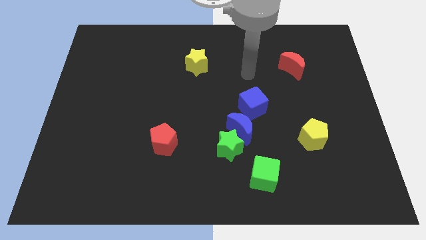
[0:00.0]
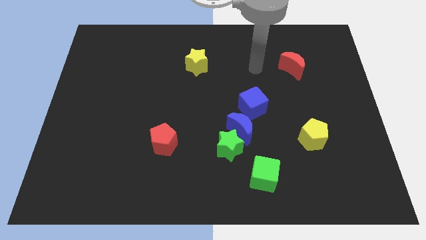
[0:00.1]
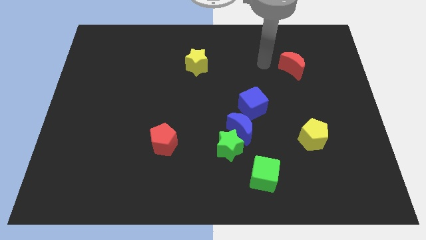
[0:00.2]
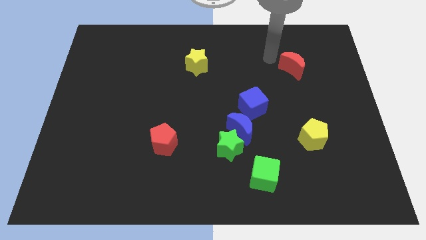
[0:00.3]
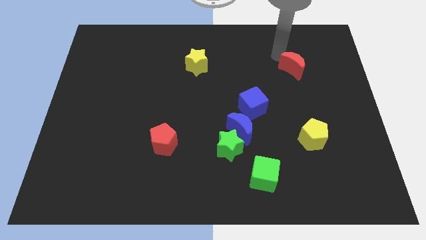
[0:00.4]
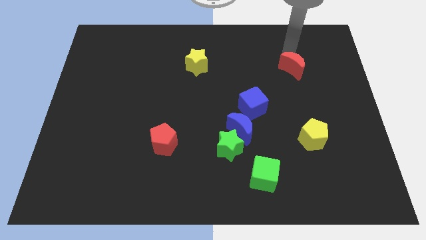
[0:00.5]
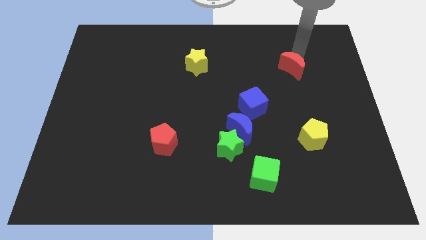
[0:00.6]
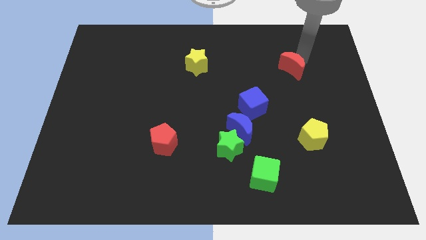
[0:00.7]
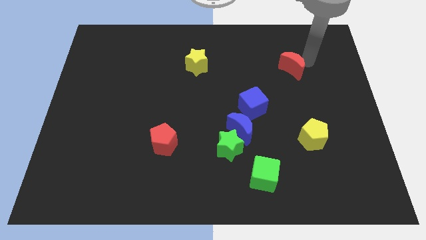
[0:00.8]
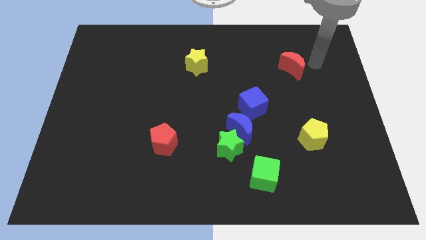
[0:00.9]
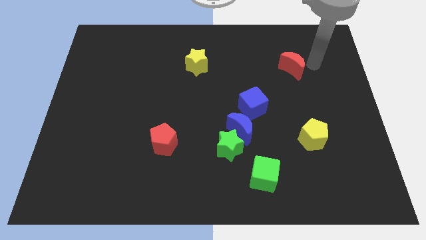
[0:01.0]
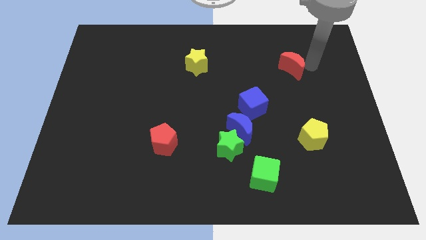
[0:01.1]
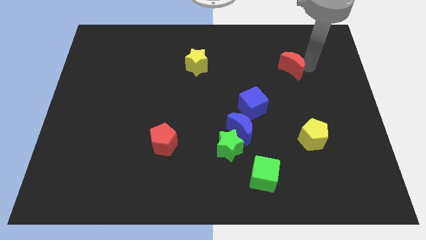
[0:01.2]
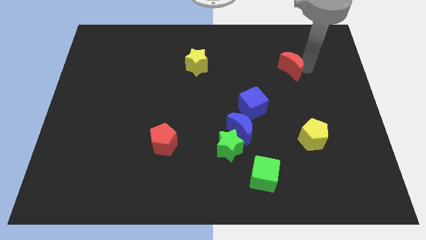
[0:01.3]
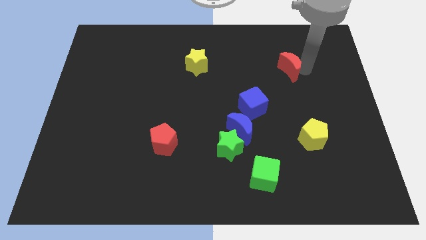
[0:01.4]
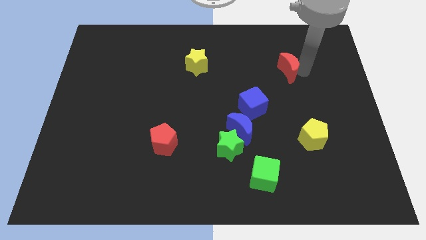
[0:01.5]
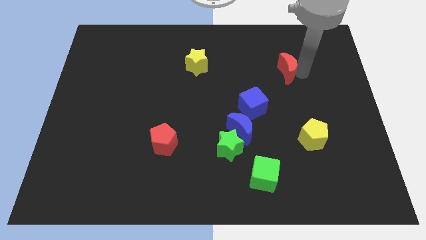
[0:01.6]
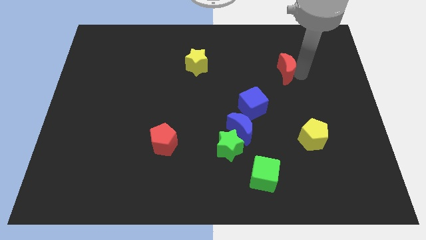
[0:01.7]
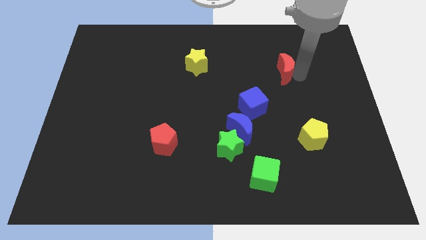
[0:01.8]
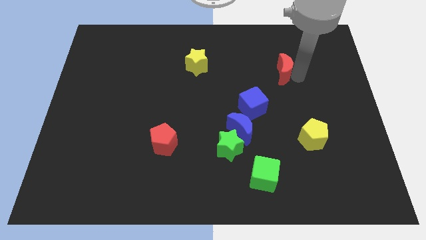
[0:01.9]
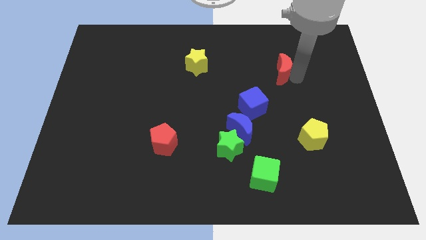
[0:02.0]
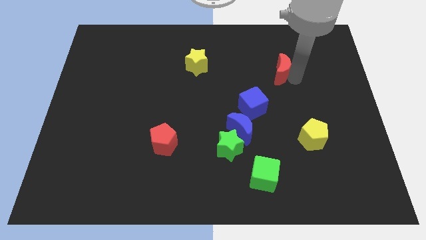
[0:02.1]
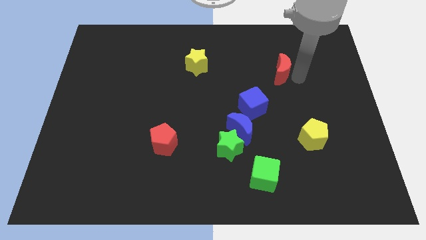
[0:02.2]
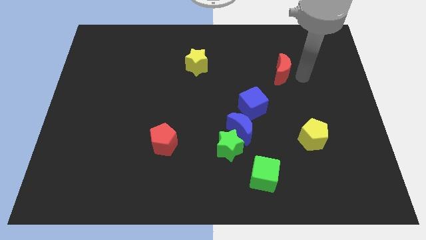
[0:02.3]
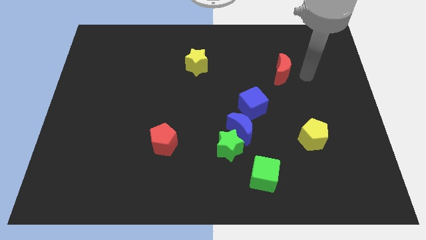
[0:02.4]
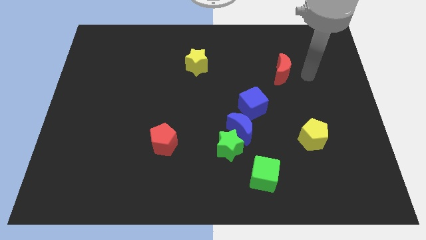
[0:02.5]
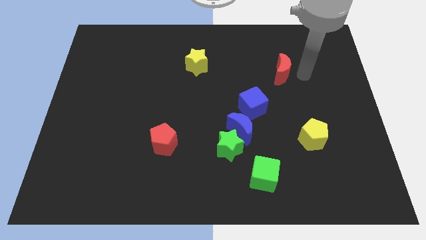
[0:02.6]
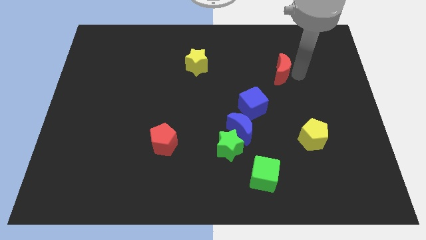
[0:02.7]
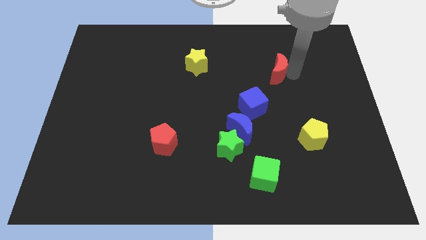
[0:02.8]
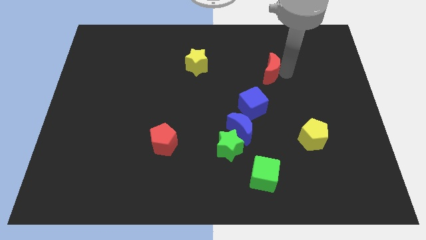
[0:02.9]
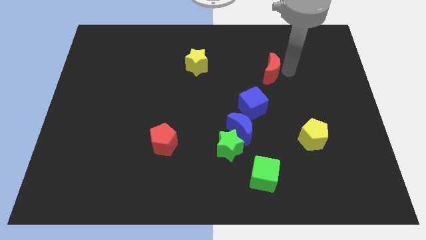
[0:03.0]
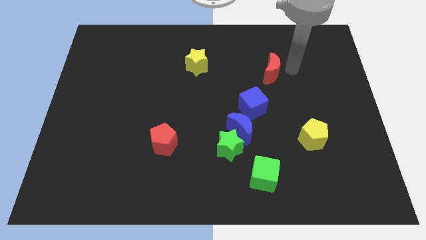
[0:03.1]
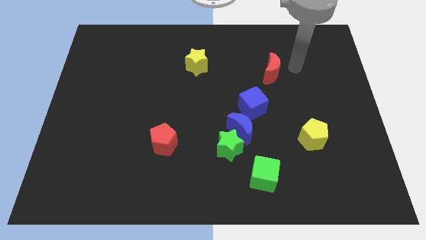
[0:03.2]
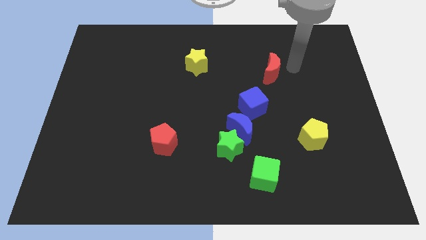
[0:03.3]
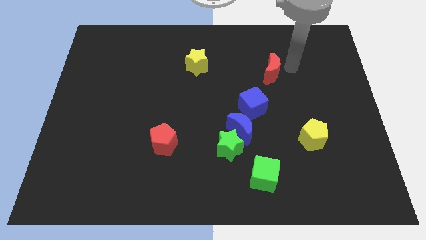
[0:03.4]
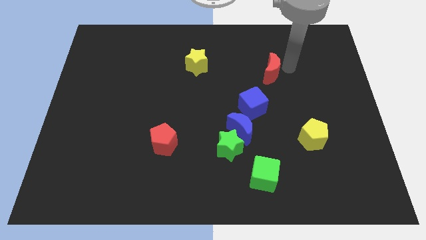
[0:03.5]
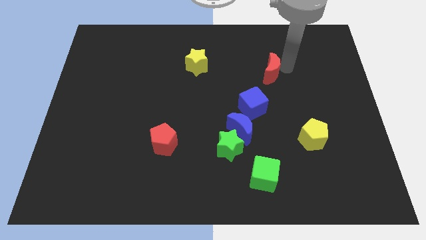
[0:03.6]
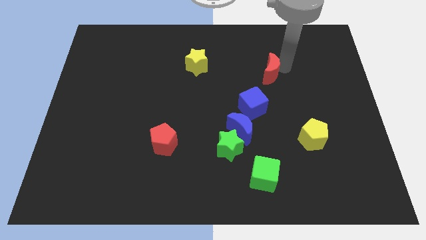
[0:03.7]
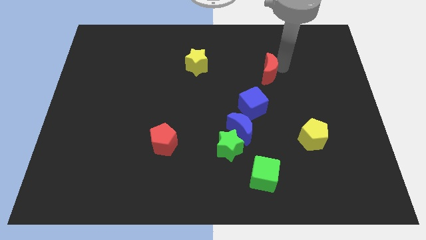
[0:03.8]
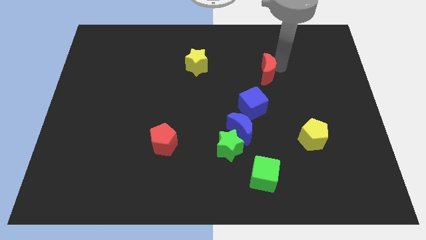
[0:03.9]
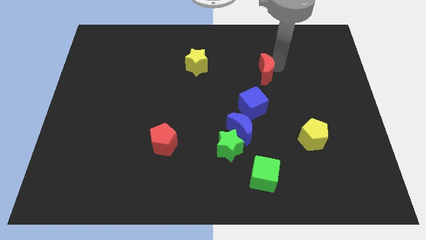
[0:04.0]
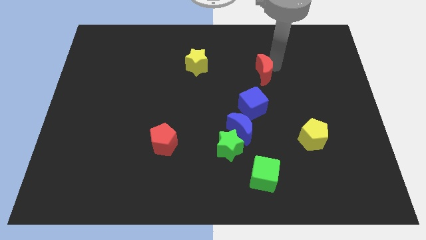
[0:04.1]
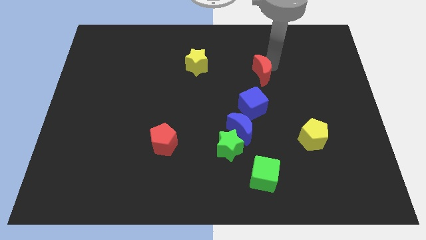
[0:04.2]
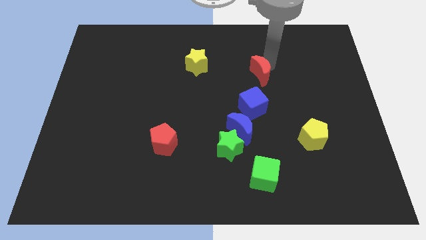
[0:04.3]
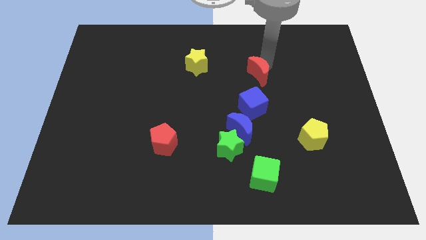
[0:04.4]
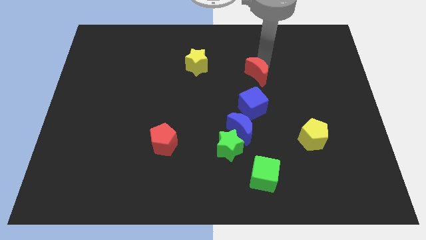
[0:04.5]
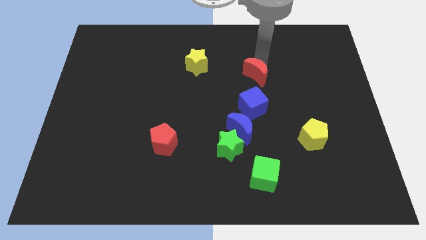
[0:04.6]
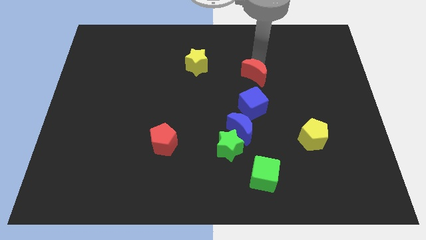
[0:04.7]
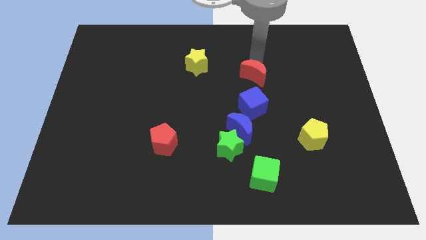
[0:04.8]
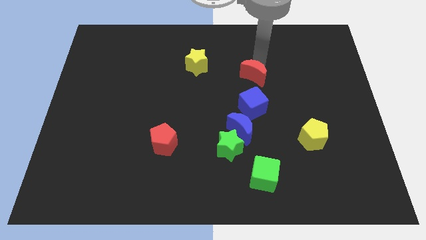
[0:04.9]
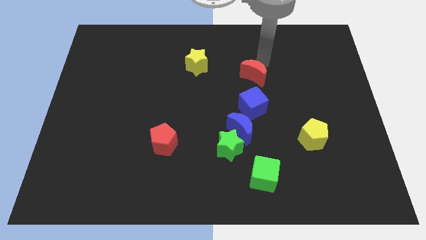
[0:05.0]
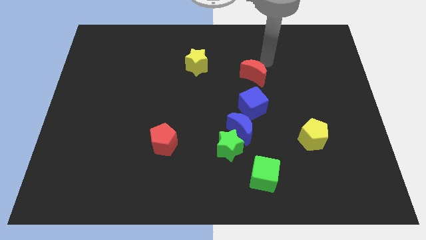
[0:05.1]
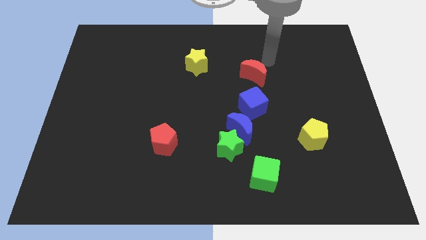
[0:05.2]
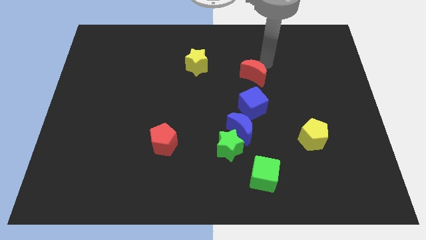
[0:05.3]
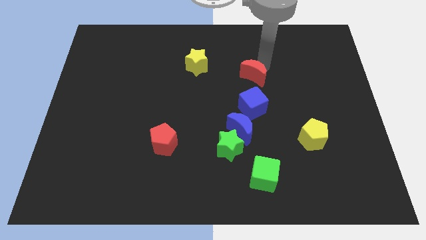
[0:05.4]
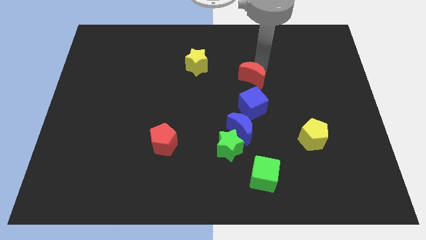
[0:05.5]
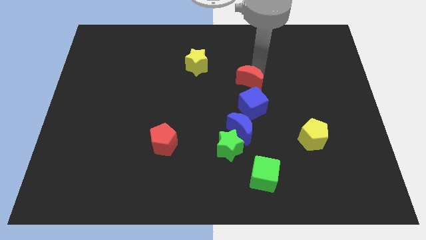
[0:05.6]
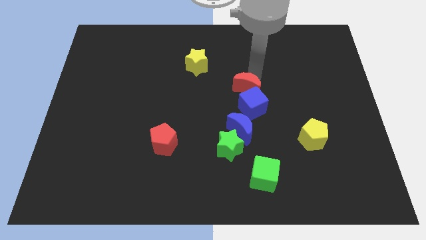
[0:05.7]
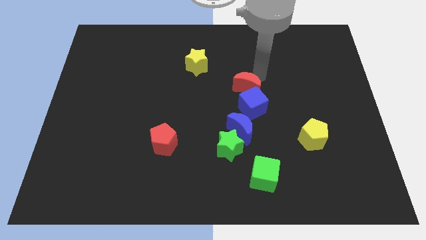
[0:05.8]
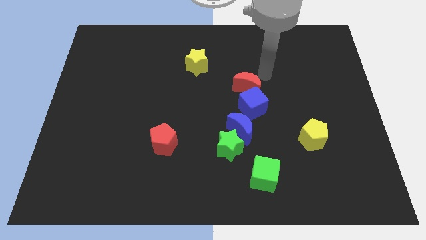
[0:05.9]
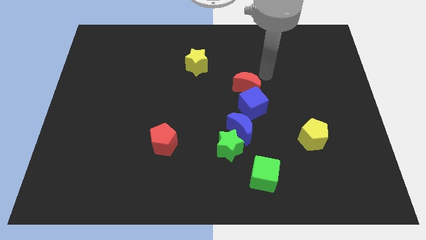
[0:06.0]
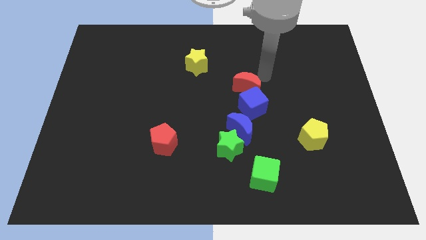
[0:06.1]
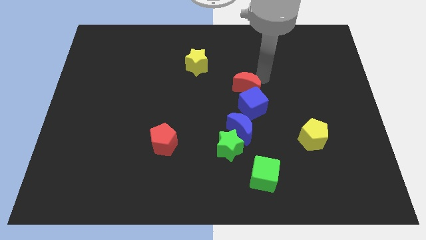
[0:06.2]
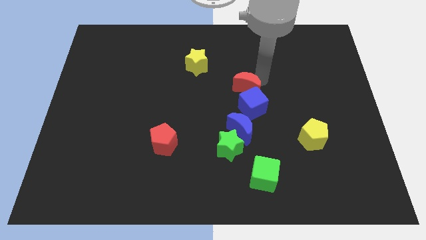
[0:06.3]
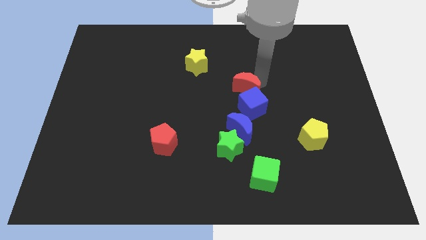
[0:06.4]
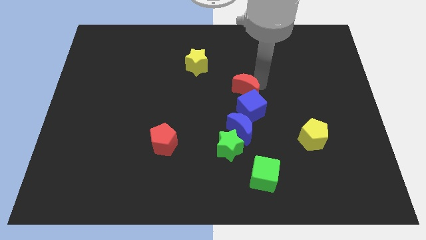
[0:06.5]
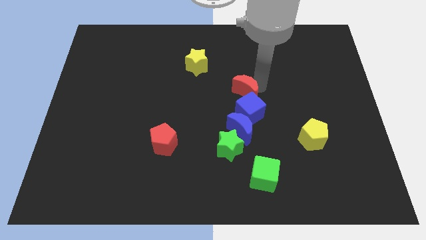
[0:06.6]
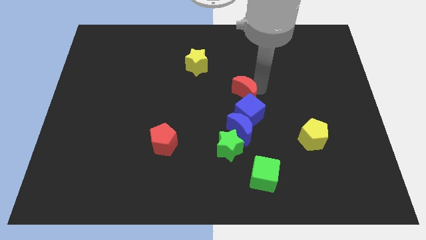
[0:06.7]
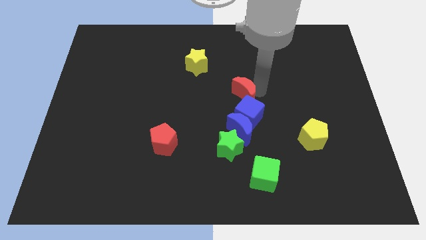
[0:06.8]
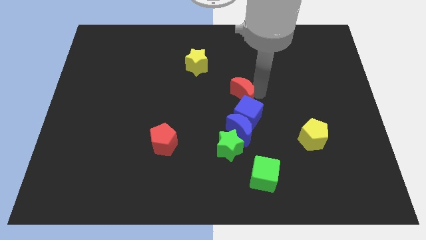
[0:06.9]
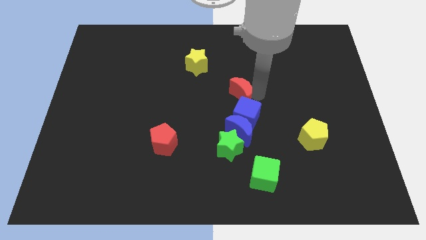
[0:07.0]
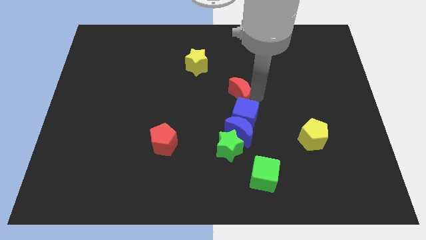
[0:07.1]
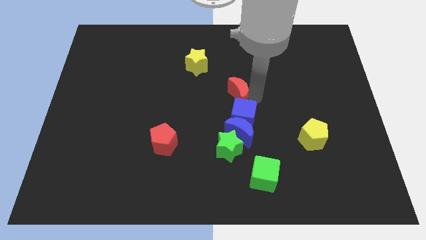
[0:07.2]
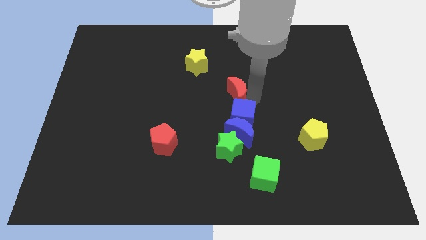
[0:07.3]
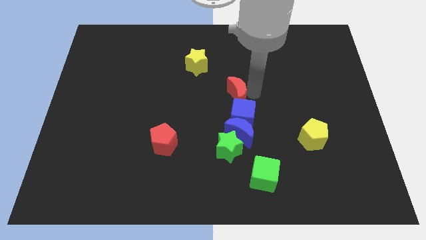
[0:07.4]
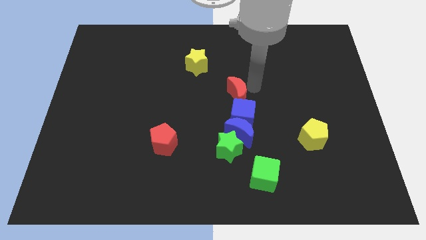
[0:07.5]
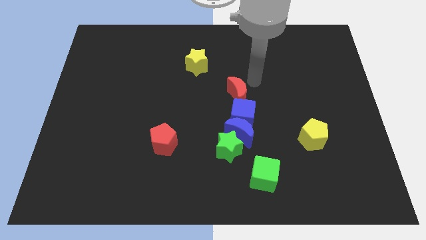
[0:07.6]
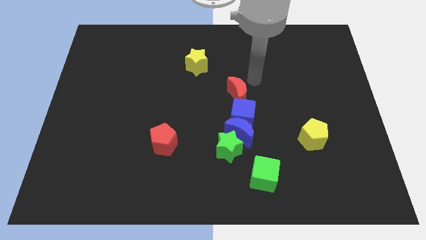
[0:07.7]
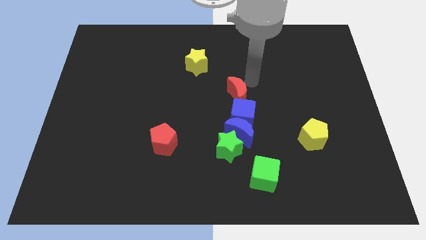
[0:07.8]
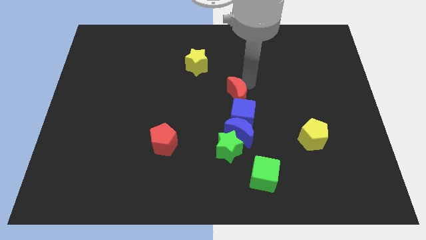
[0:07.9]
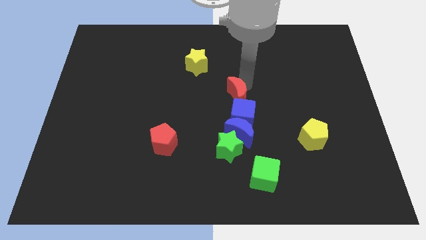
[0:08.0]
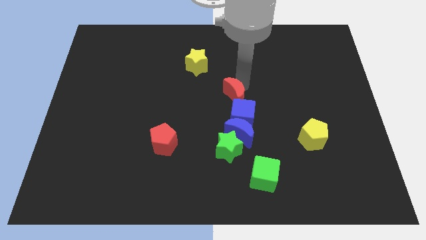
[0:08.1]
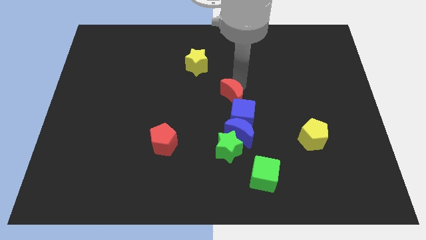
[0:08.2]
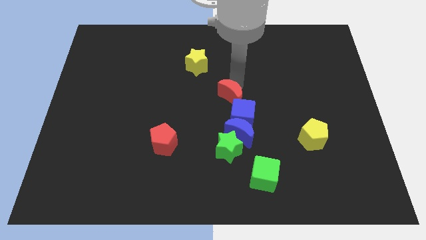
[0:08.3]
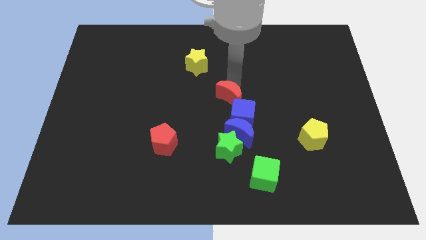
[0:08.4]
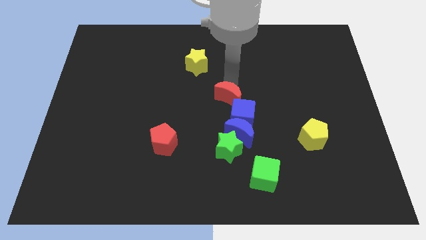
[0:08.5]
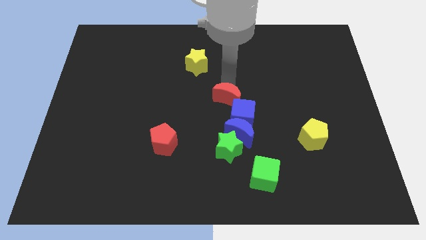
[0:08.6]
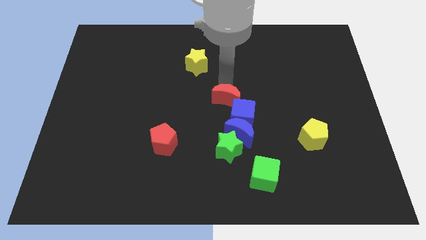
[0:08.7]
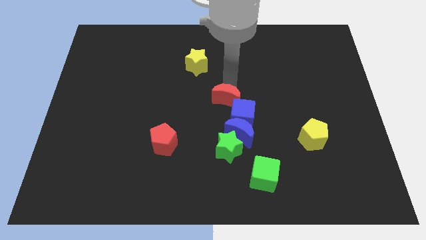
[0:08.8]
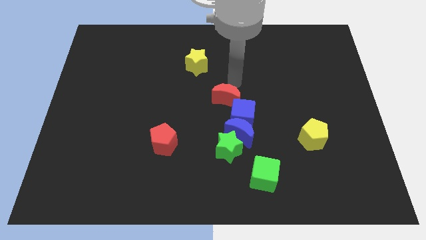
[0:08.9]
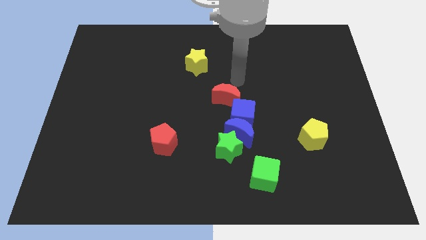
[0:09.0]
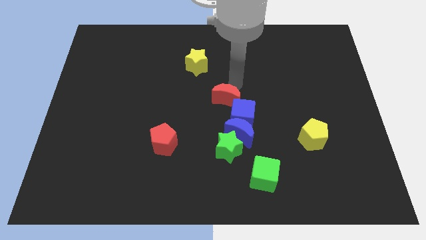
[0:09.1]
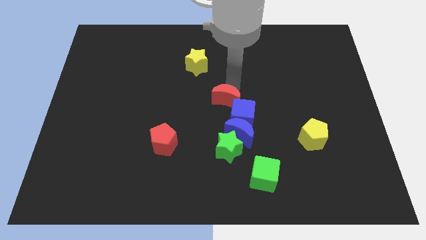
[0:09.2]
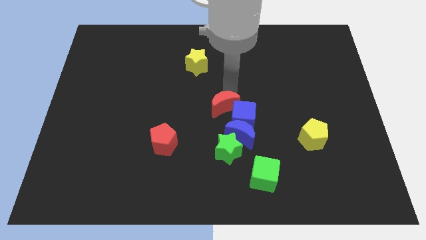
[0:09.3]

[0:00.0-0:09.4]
move the red moon to the top left of the blue moon
